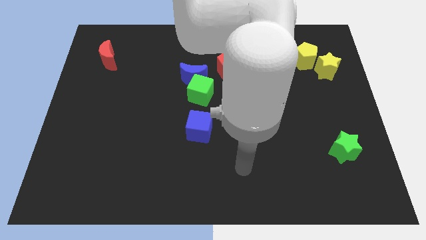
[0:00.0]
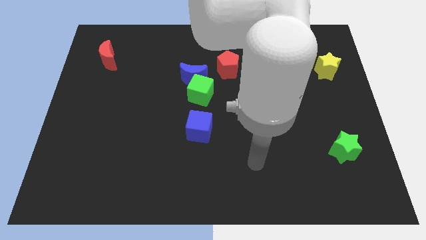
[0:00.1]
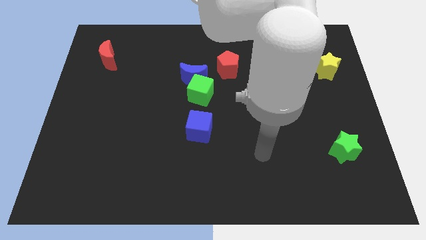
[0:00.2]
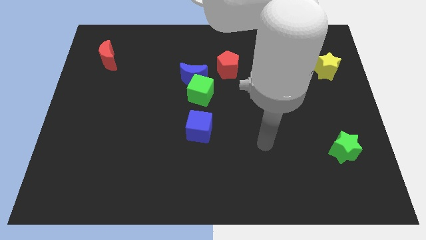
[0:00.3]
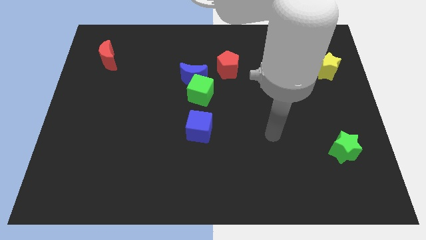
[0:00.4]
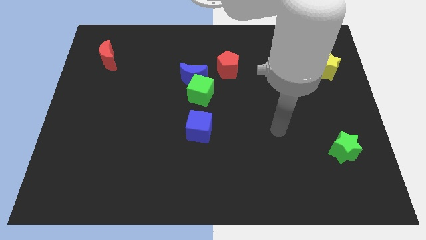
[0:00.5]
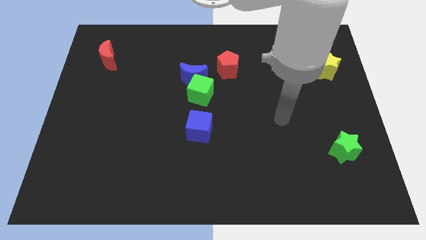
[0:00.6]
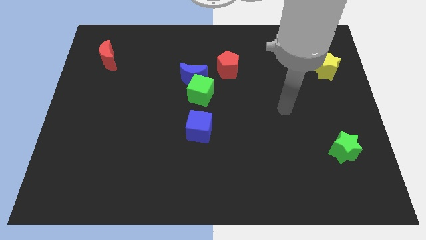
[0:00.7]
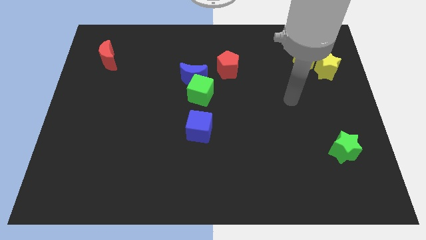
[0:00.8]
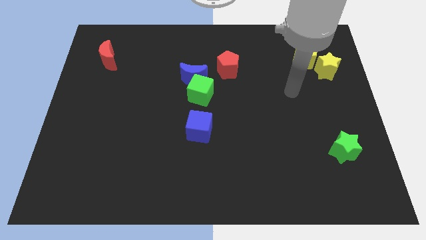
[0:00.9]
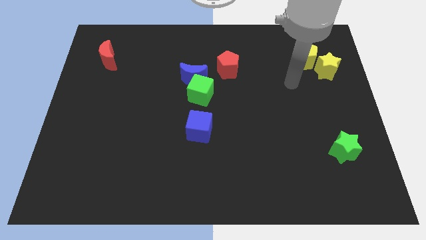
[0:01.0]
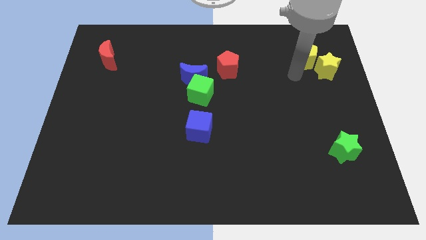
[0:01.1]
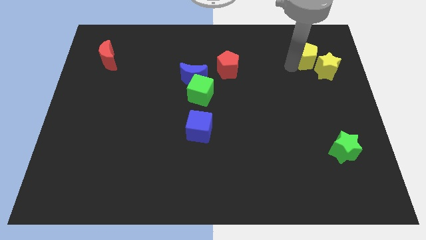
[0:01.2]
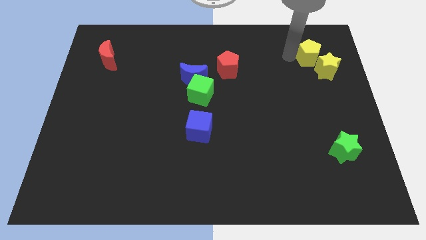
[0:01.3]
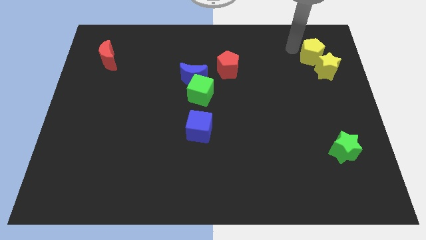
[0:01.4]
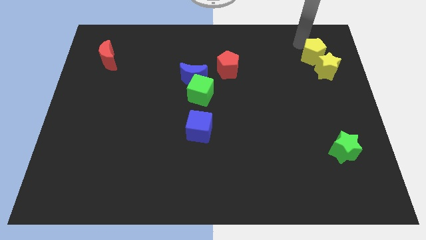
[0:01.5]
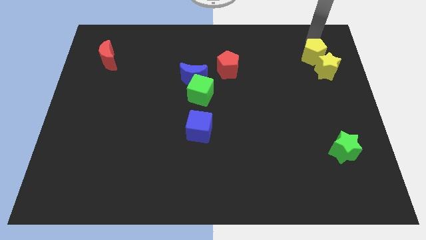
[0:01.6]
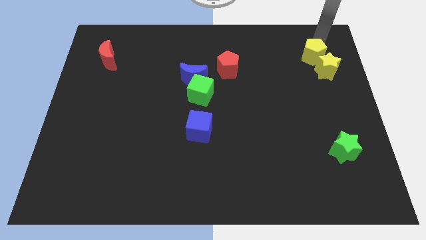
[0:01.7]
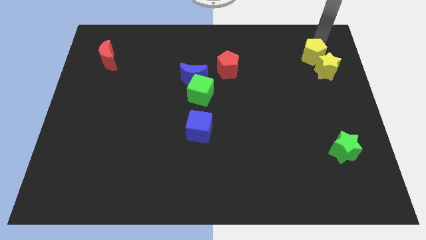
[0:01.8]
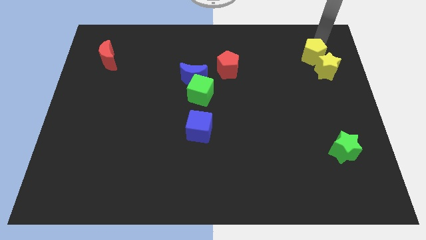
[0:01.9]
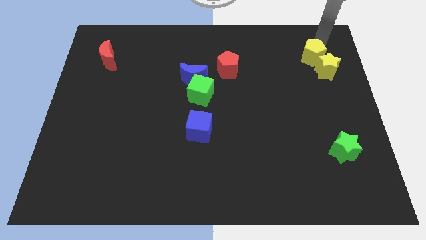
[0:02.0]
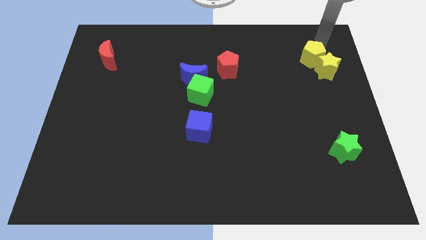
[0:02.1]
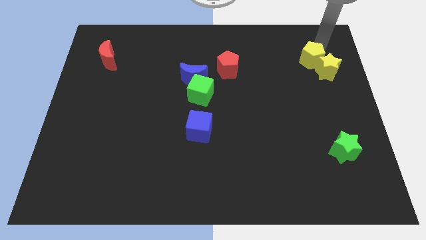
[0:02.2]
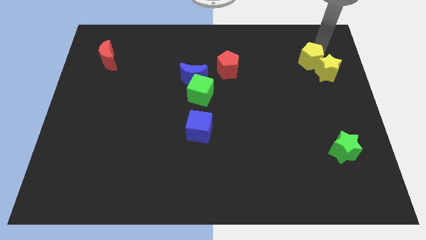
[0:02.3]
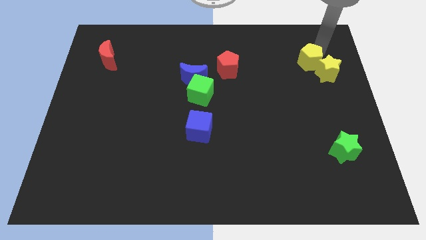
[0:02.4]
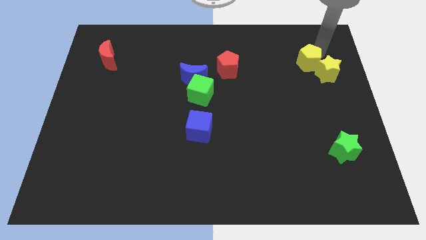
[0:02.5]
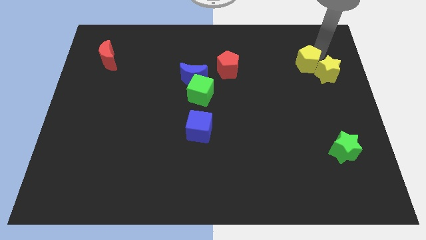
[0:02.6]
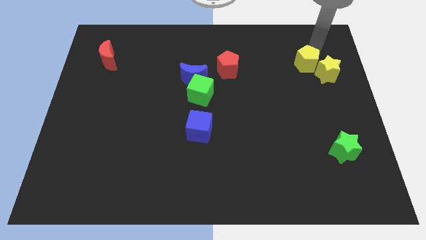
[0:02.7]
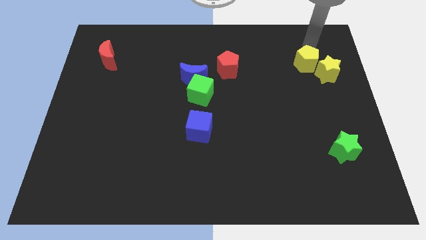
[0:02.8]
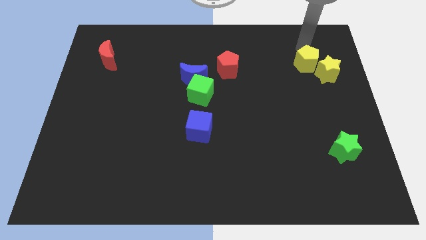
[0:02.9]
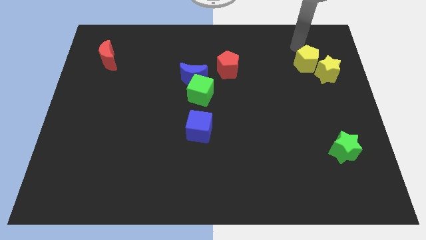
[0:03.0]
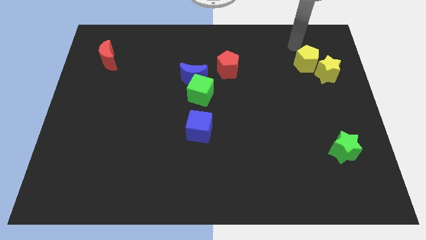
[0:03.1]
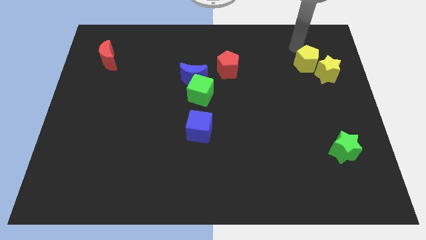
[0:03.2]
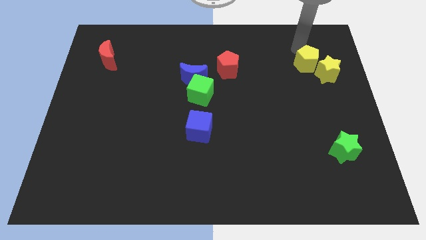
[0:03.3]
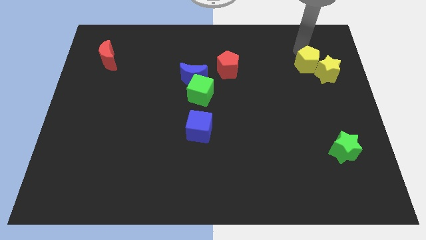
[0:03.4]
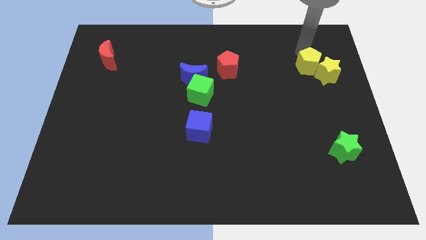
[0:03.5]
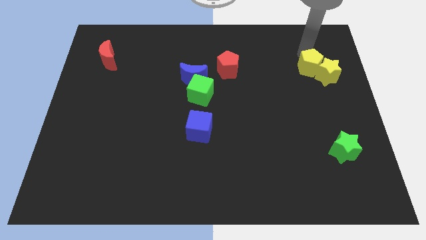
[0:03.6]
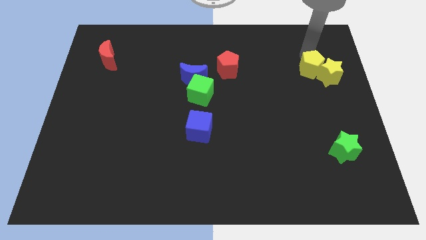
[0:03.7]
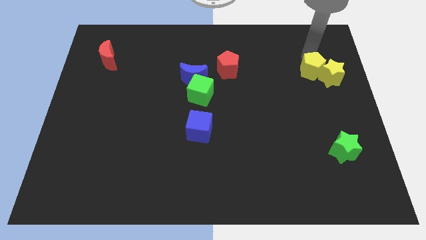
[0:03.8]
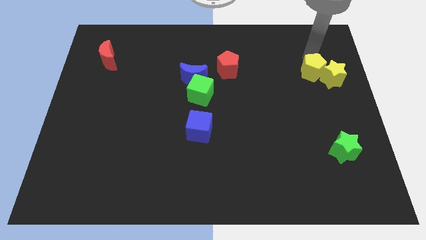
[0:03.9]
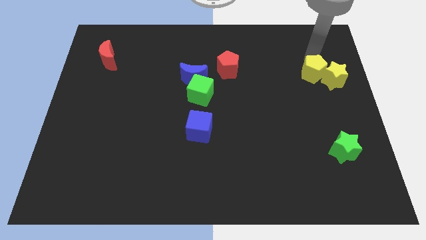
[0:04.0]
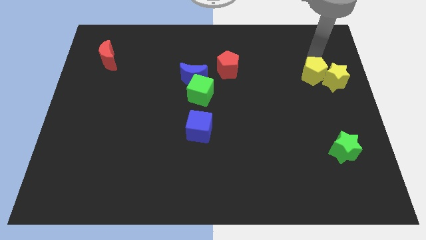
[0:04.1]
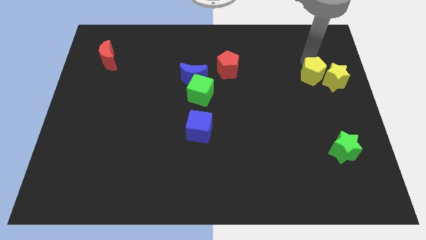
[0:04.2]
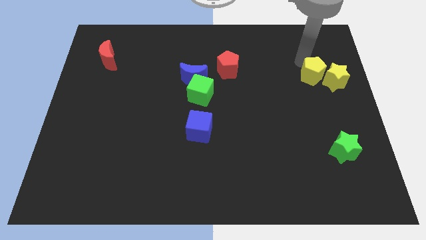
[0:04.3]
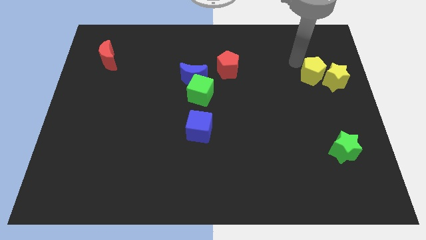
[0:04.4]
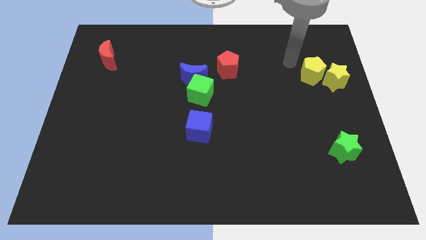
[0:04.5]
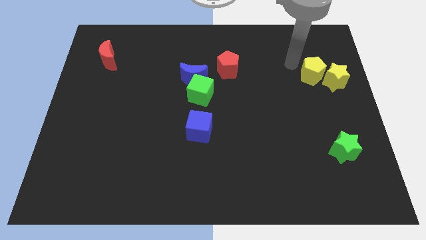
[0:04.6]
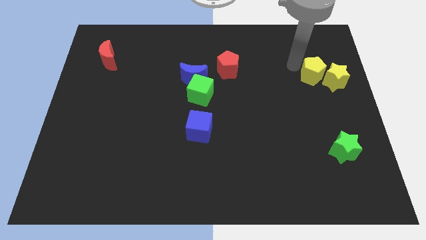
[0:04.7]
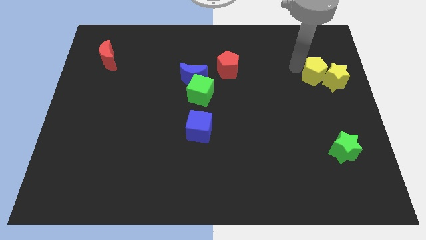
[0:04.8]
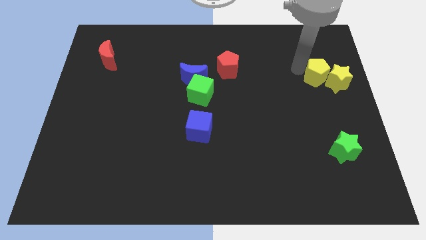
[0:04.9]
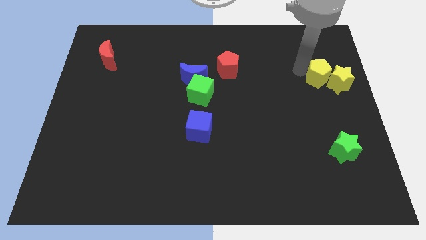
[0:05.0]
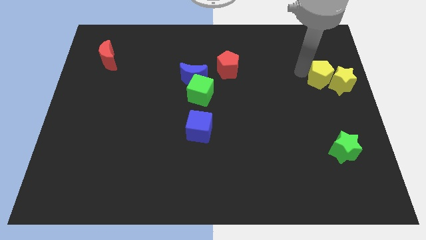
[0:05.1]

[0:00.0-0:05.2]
push the yellow pentagon to the right side of the board

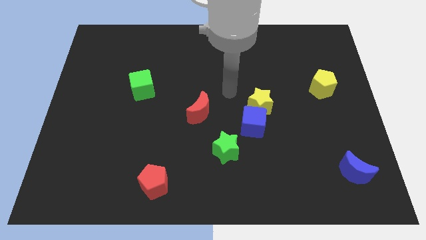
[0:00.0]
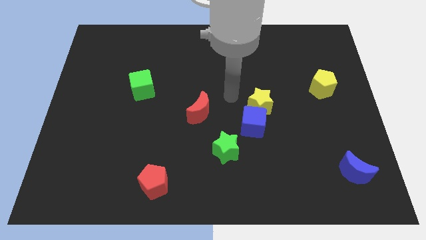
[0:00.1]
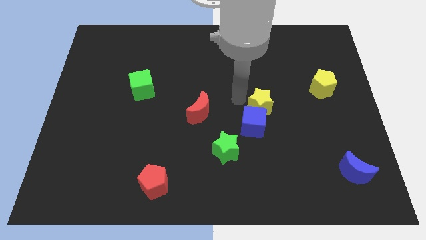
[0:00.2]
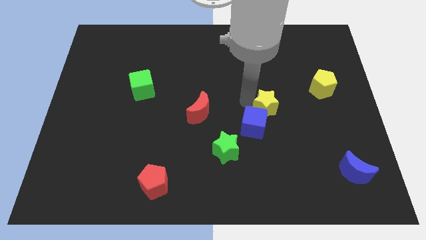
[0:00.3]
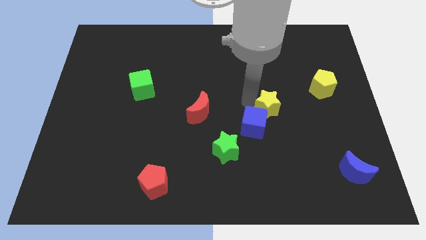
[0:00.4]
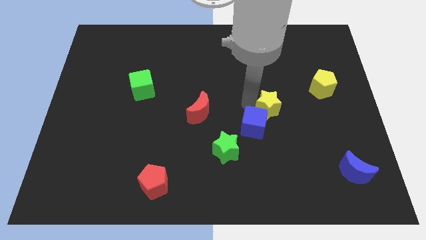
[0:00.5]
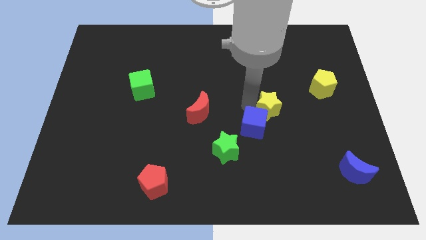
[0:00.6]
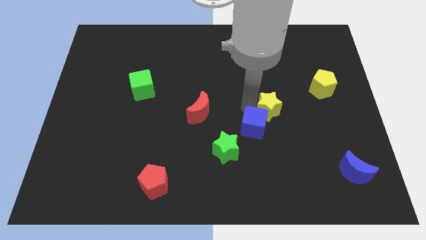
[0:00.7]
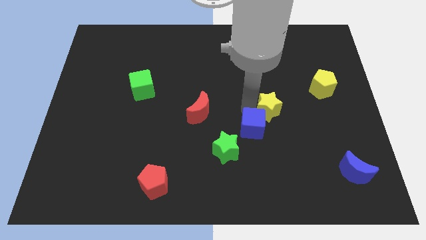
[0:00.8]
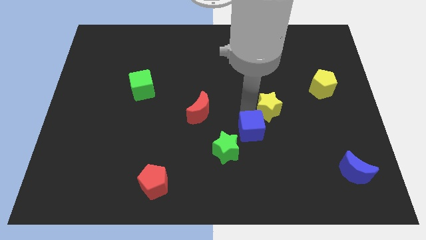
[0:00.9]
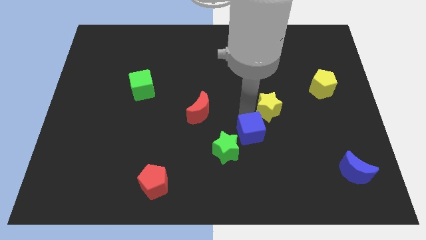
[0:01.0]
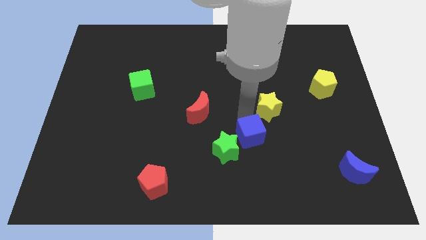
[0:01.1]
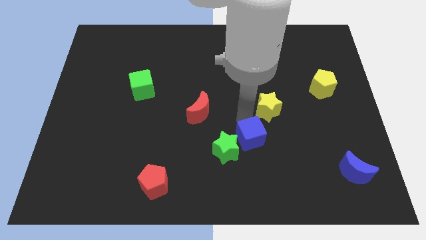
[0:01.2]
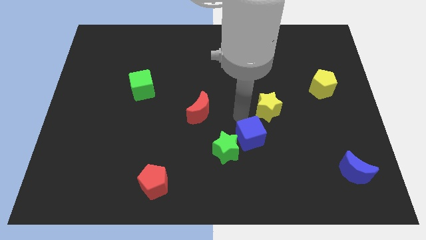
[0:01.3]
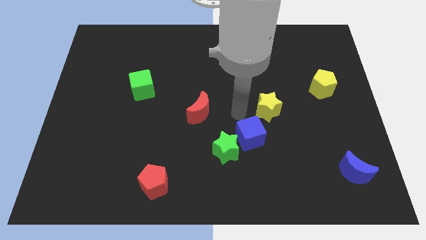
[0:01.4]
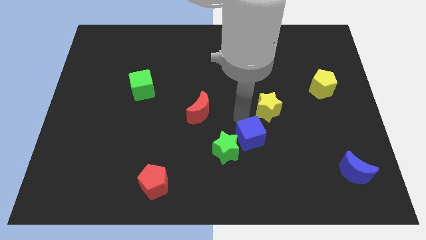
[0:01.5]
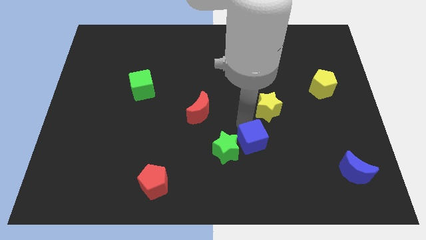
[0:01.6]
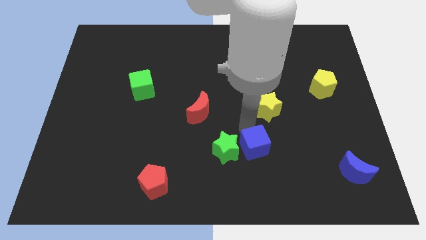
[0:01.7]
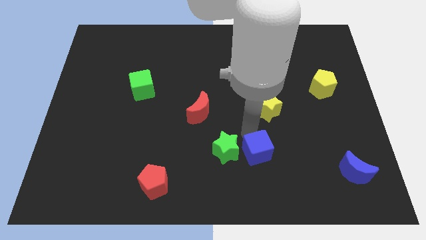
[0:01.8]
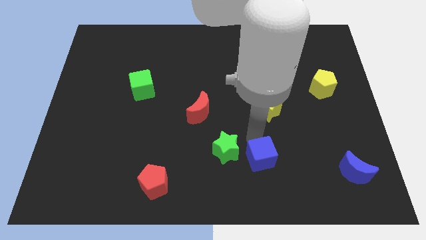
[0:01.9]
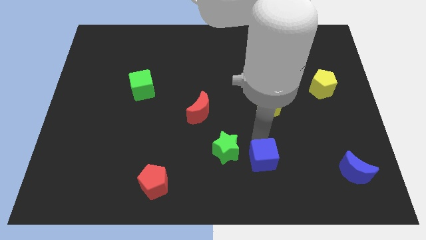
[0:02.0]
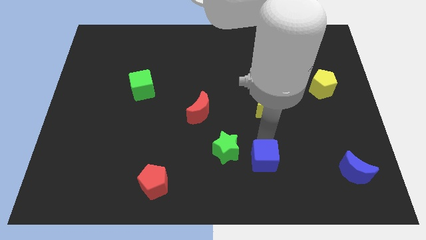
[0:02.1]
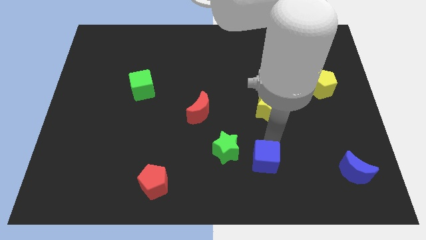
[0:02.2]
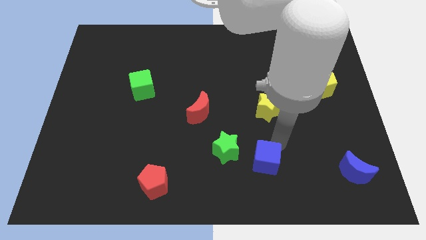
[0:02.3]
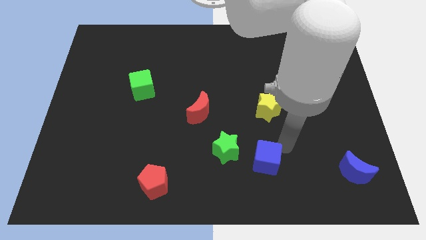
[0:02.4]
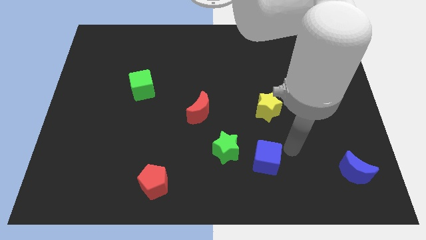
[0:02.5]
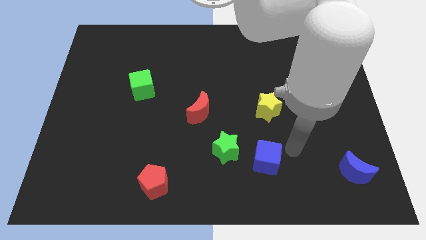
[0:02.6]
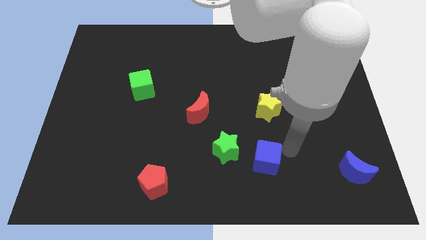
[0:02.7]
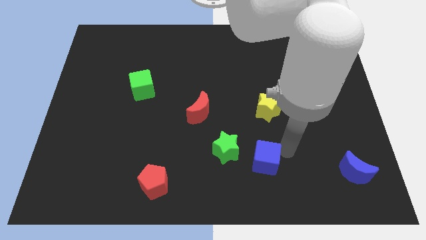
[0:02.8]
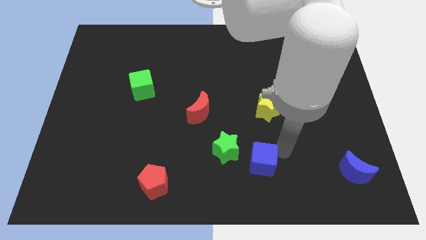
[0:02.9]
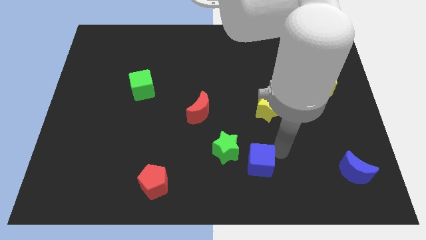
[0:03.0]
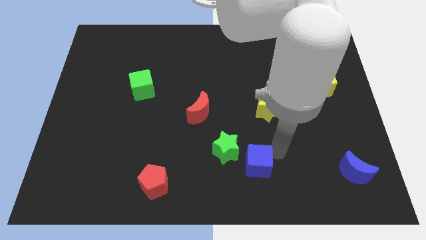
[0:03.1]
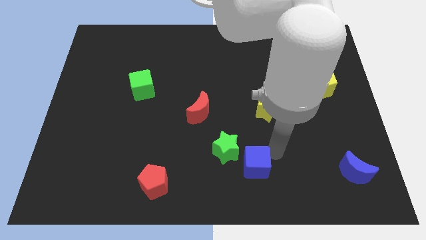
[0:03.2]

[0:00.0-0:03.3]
slide the blue cube to the bottom
